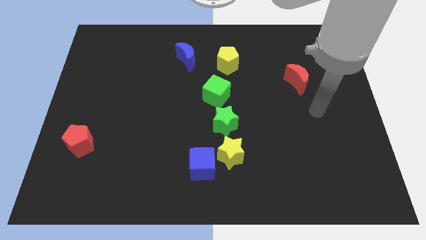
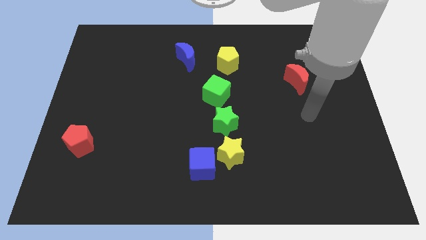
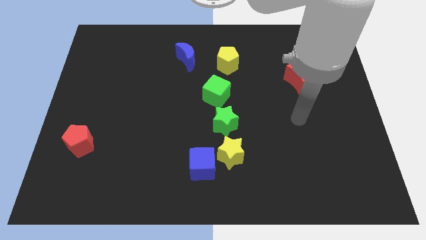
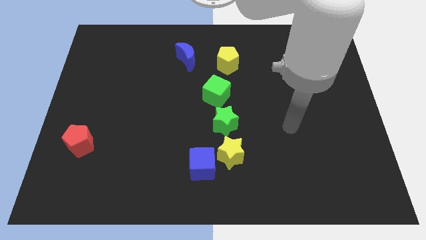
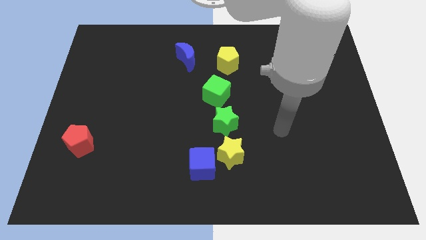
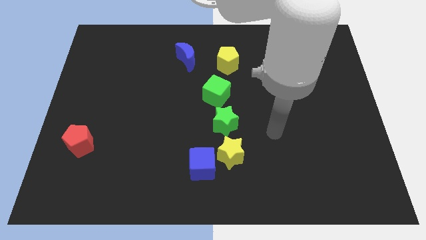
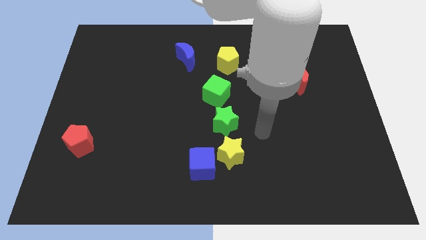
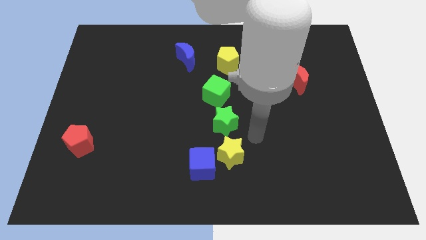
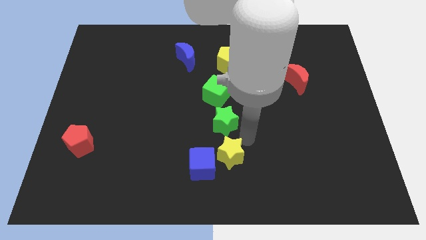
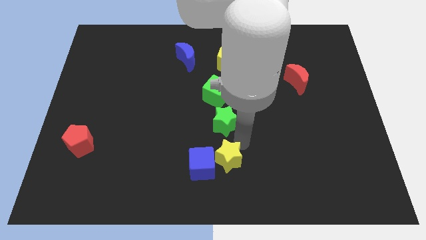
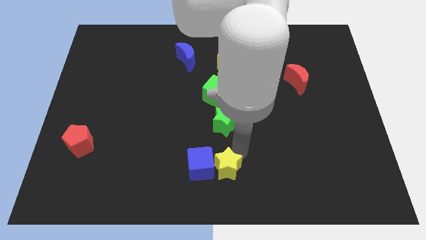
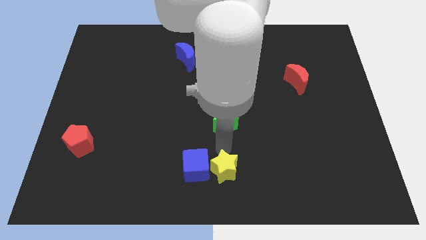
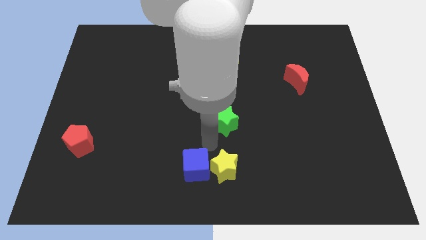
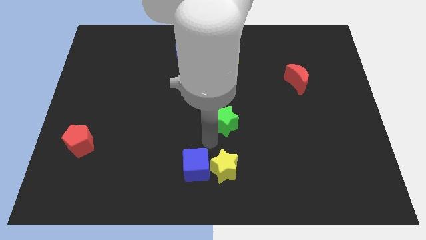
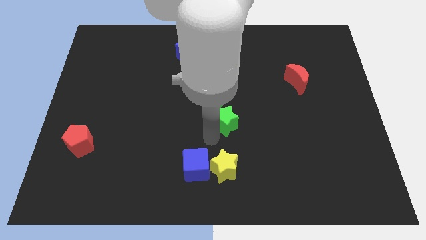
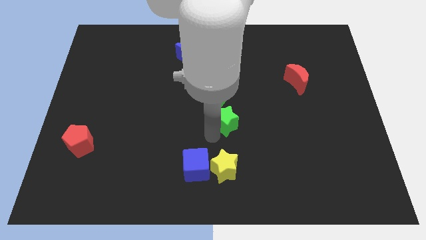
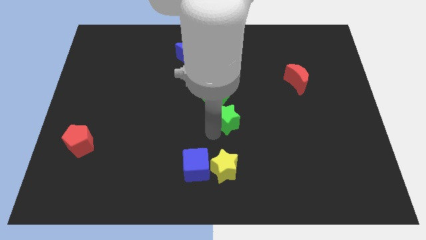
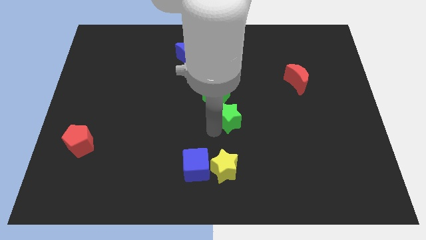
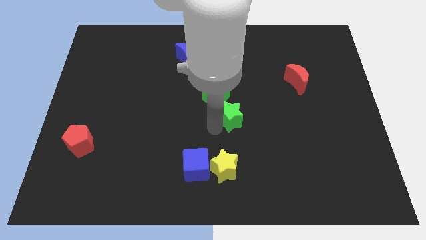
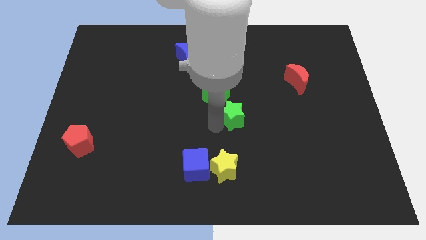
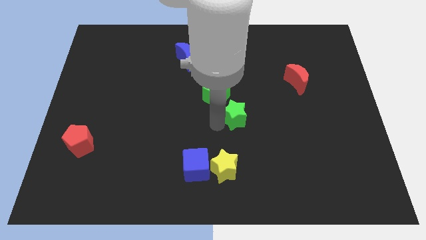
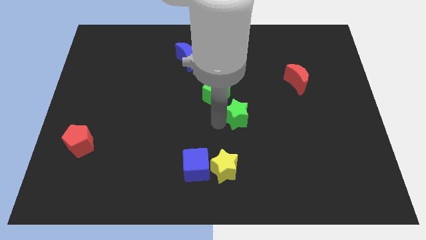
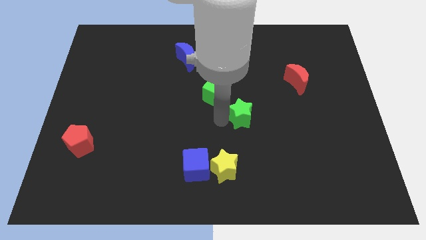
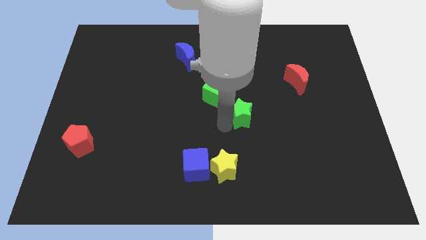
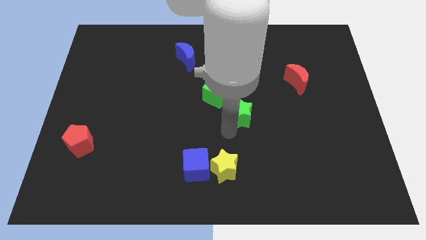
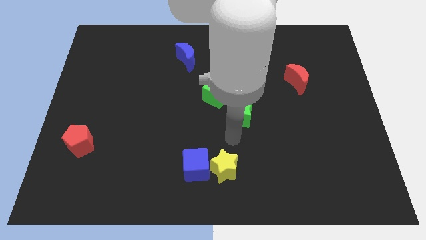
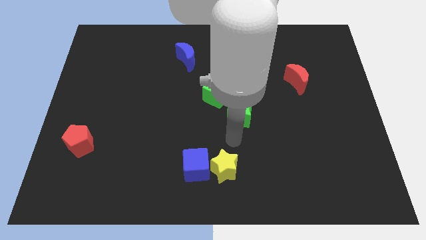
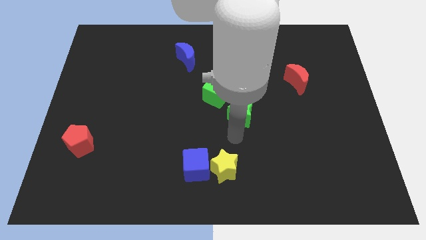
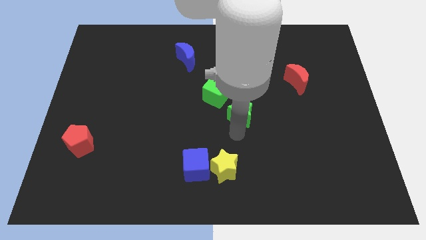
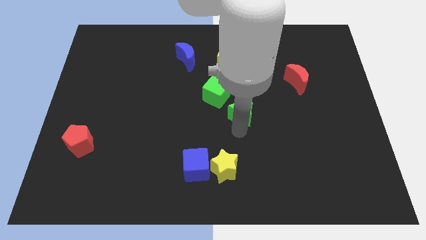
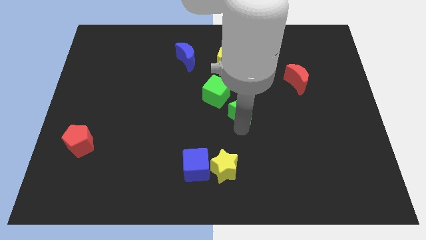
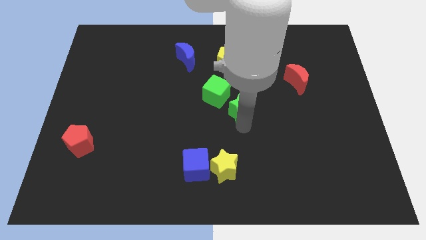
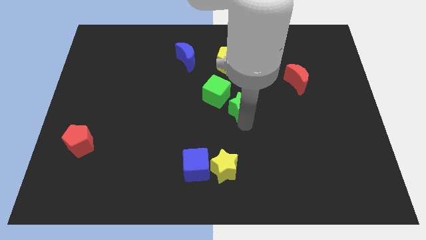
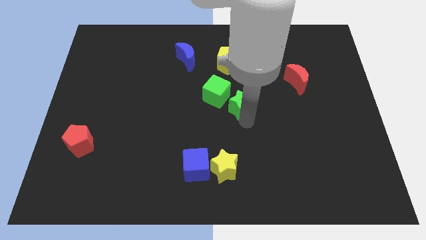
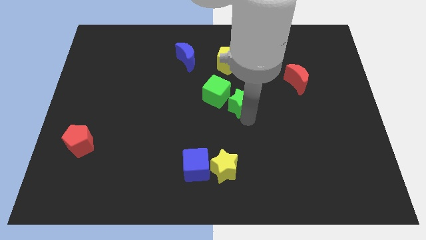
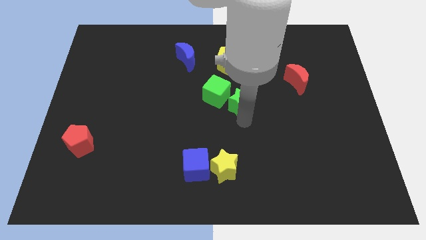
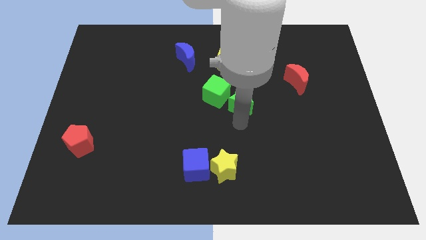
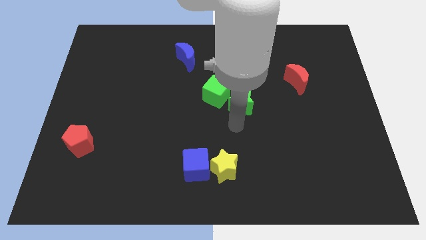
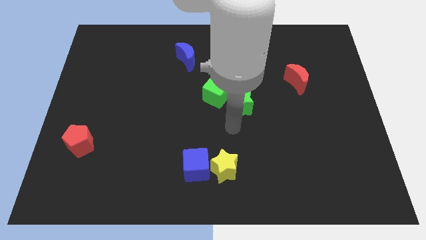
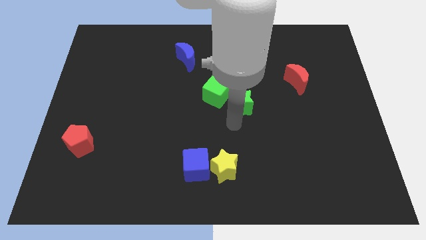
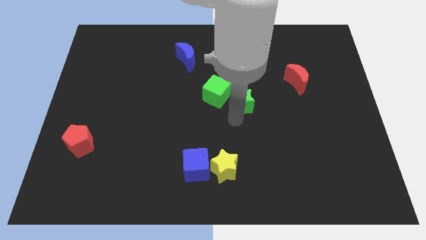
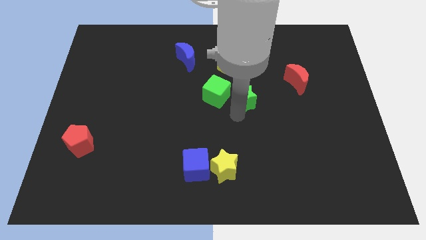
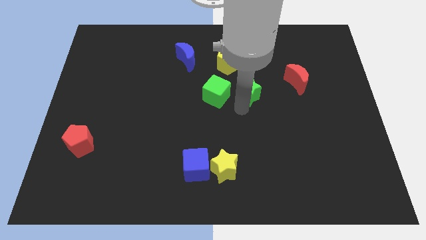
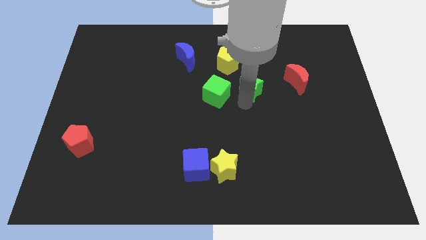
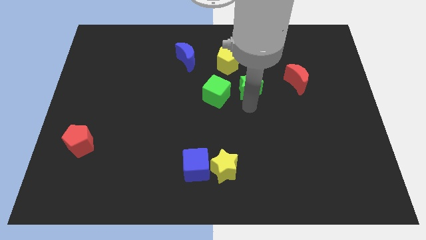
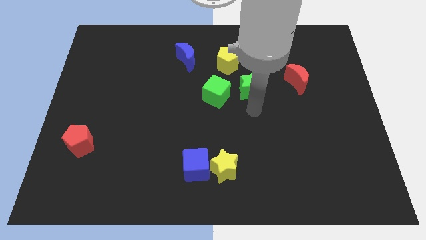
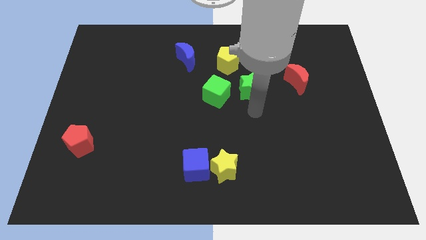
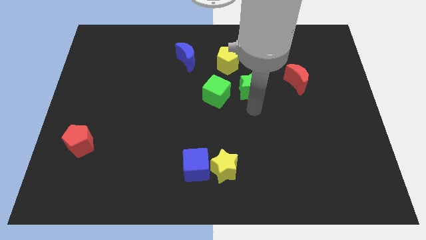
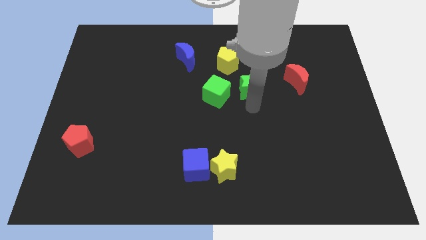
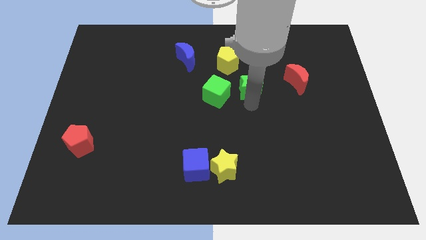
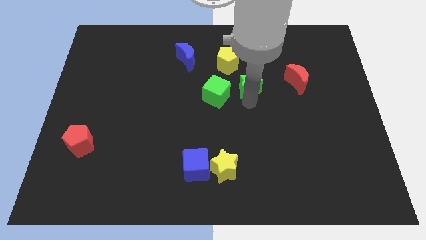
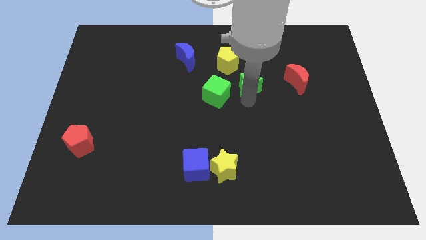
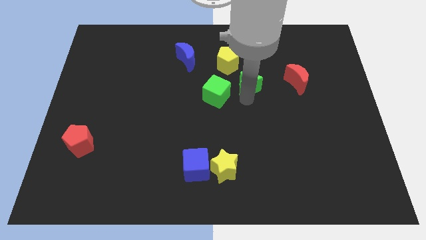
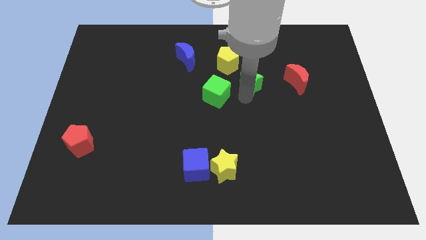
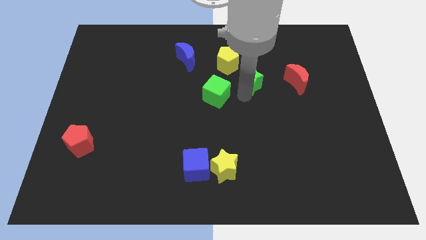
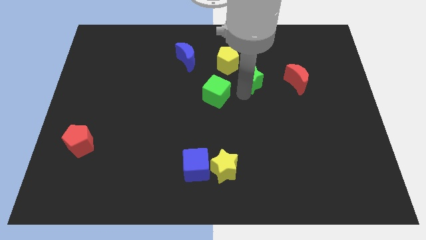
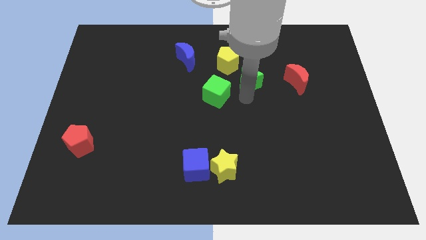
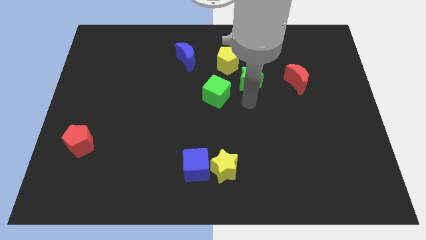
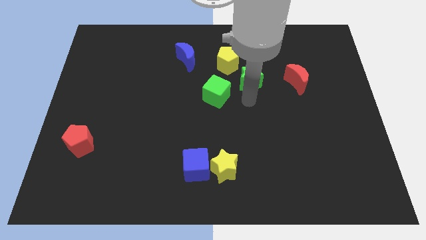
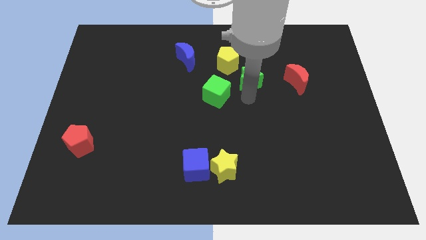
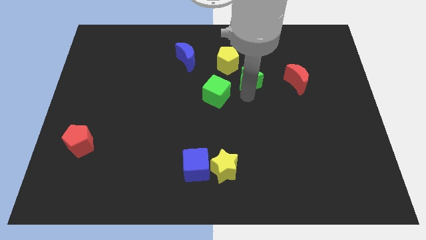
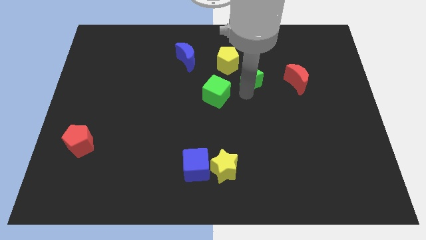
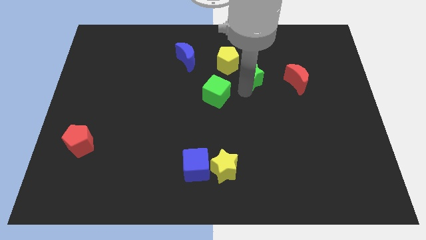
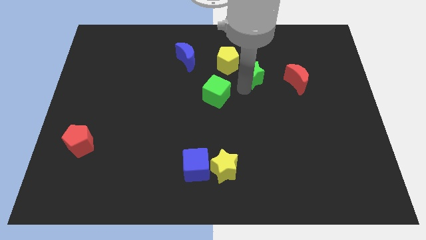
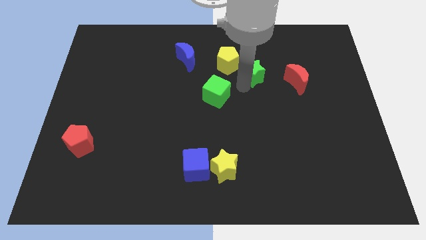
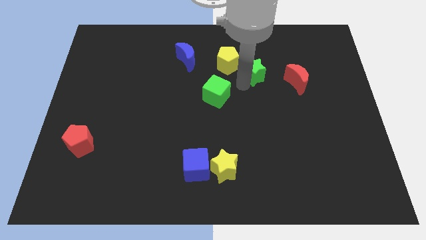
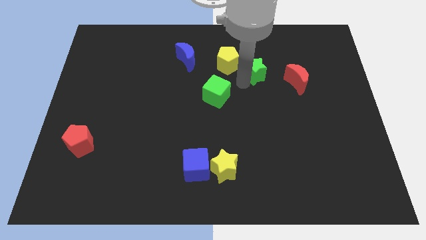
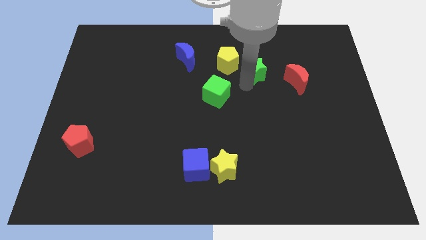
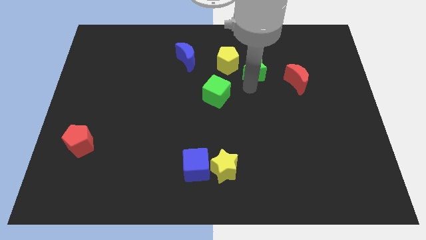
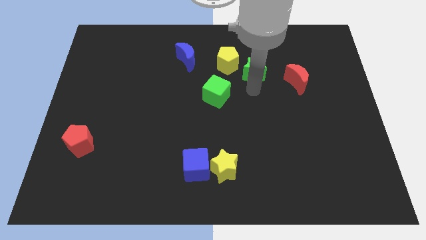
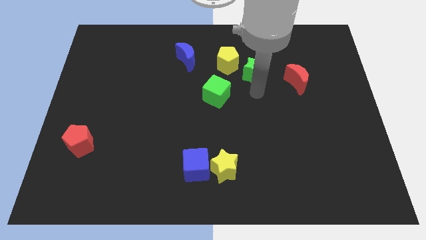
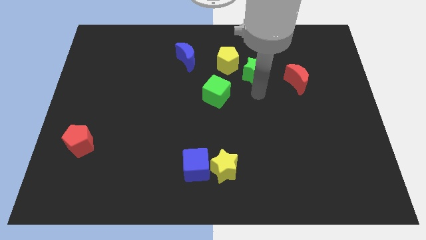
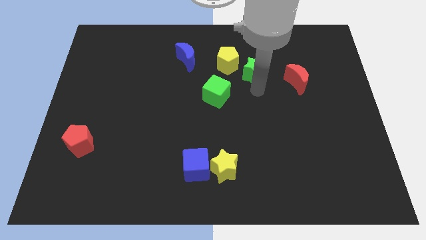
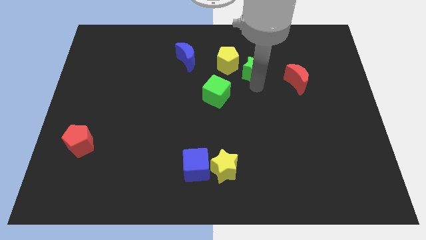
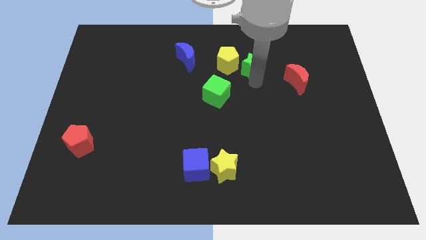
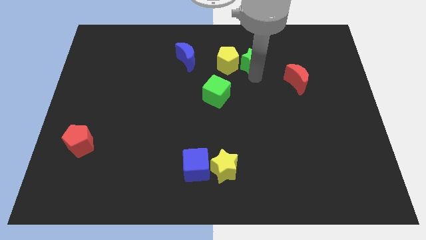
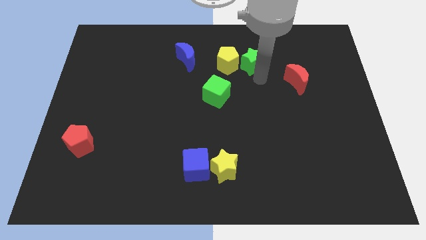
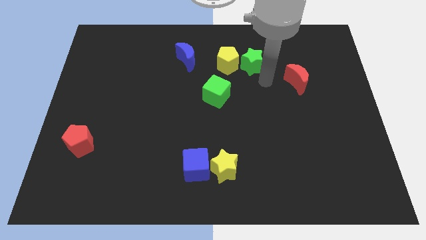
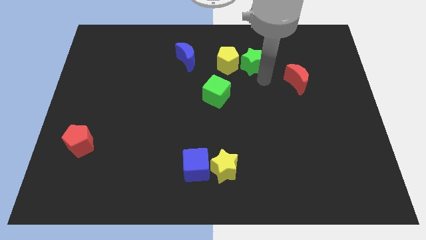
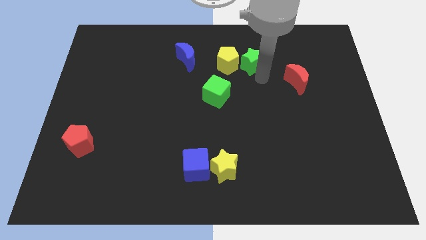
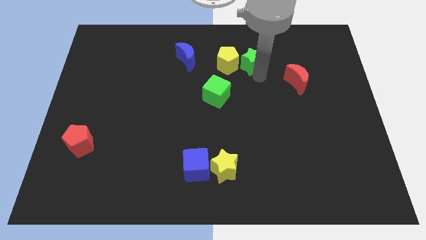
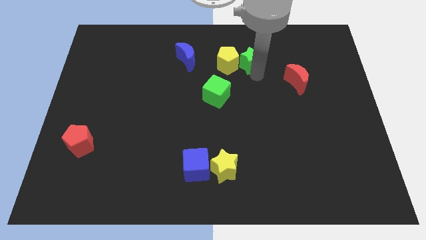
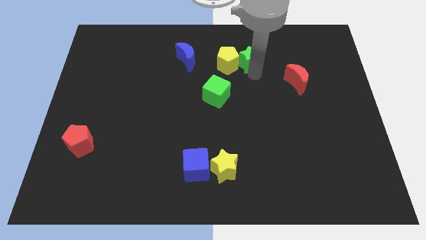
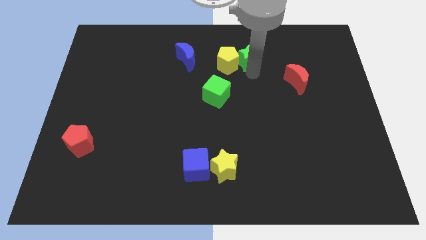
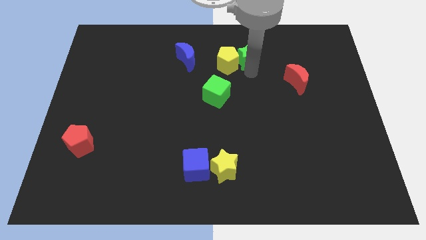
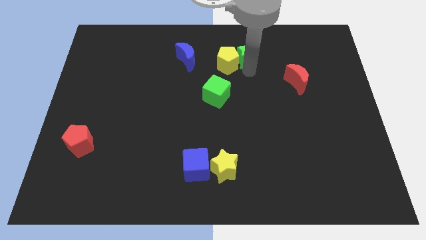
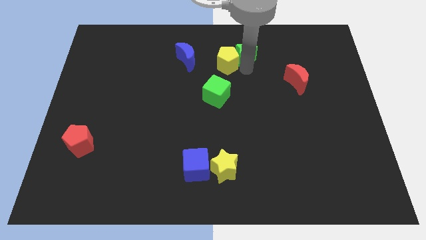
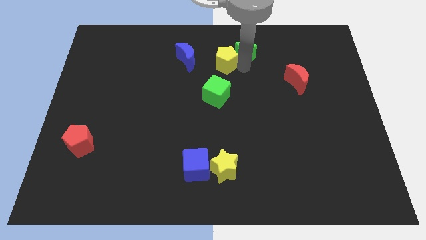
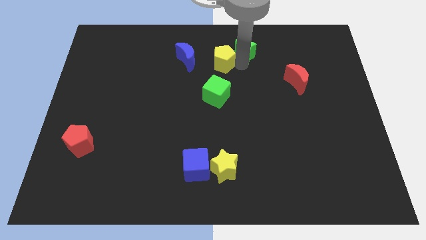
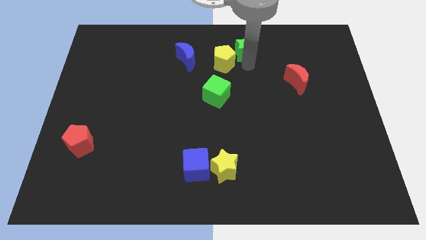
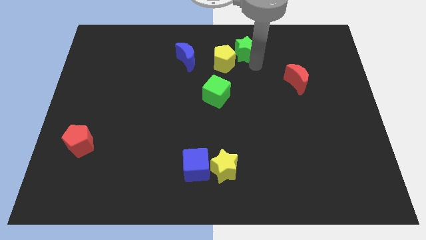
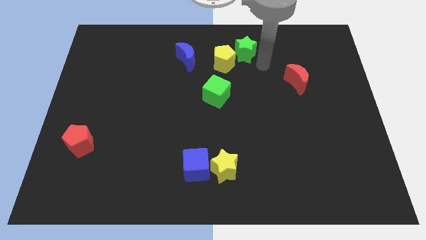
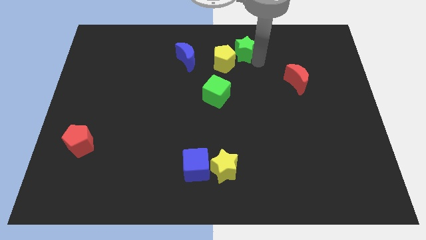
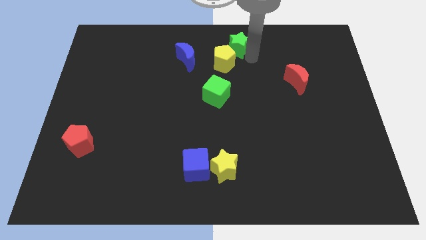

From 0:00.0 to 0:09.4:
move the green star to the top side
